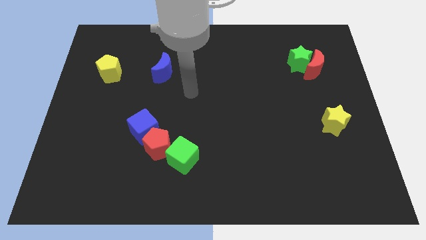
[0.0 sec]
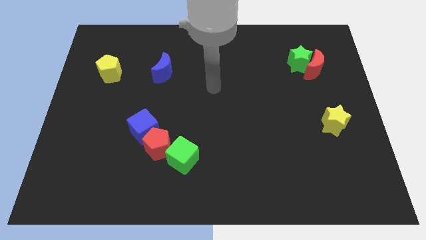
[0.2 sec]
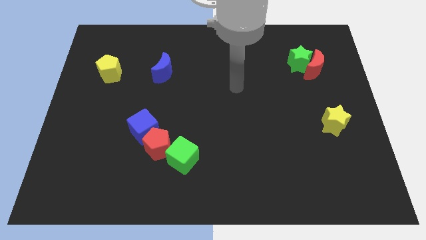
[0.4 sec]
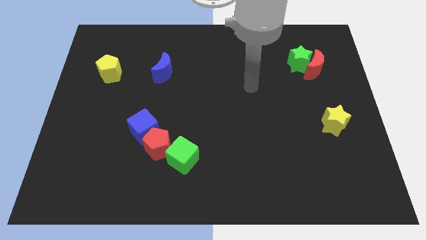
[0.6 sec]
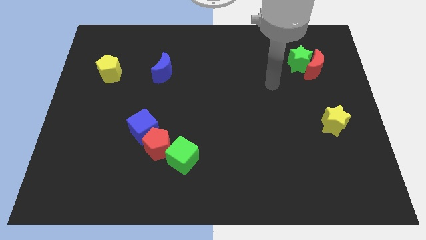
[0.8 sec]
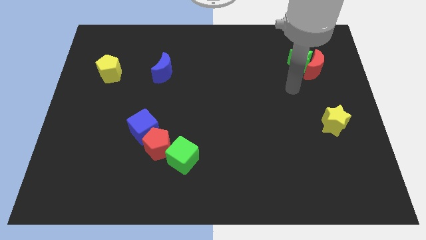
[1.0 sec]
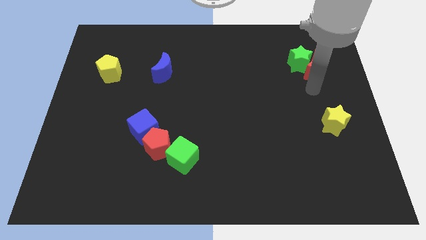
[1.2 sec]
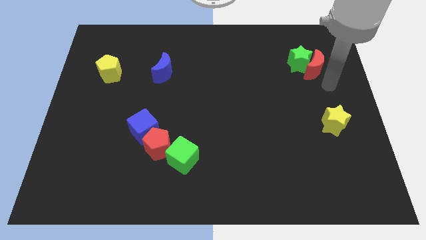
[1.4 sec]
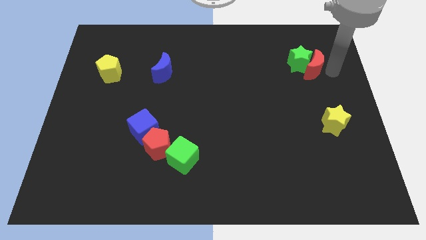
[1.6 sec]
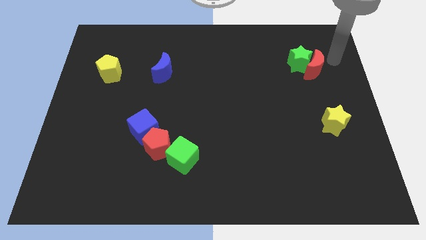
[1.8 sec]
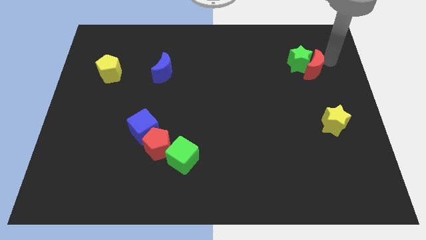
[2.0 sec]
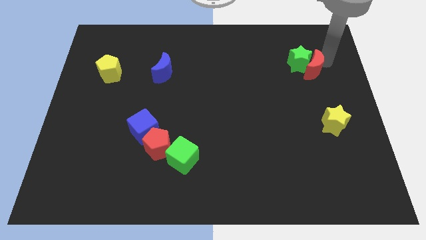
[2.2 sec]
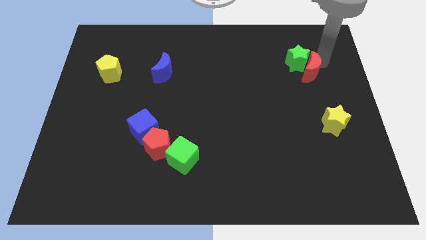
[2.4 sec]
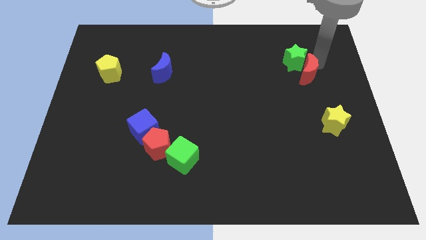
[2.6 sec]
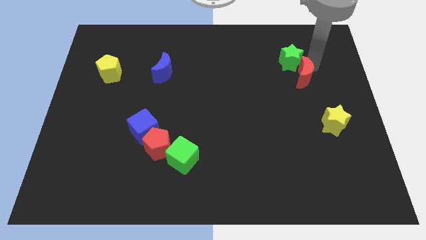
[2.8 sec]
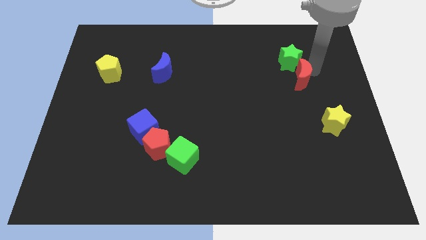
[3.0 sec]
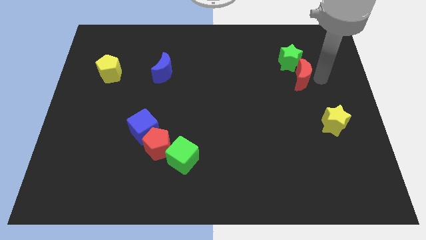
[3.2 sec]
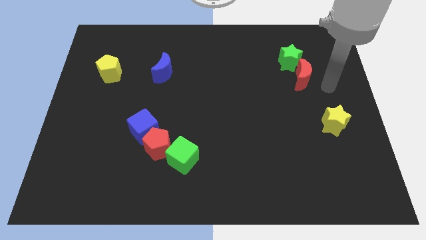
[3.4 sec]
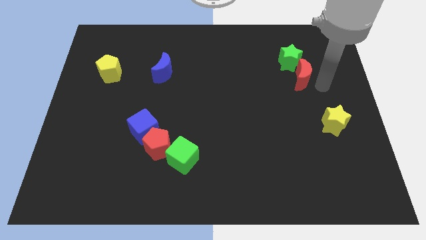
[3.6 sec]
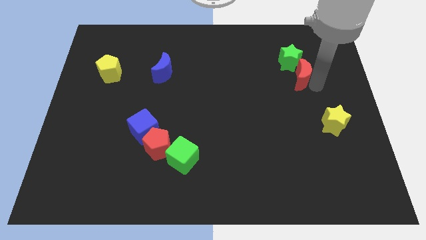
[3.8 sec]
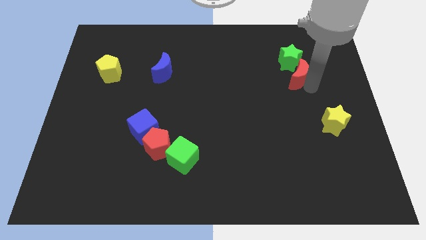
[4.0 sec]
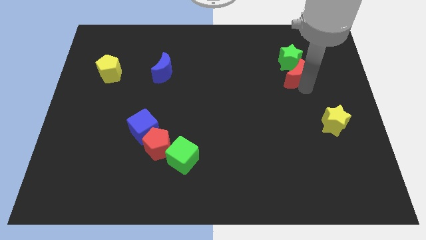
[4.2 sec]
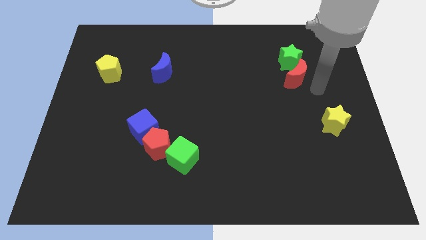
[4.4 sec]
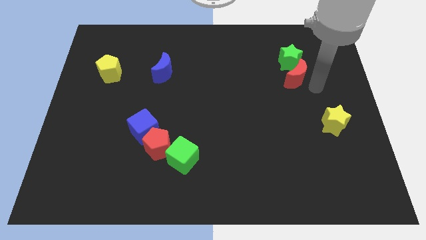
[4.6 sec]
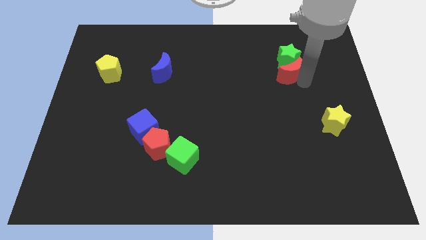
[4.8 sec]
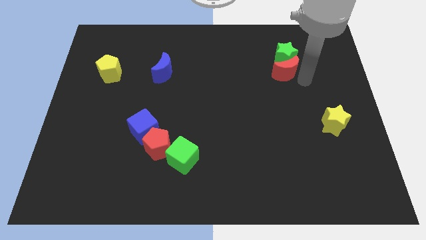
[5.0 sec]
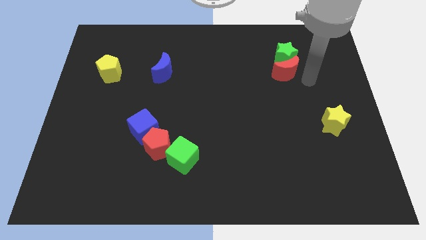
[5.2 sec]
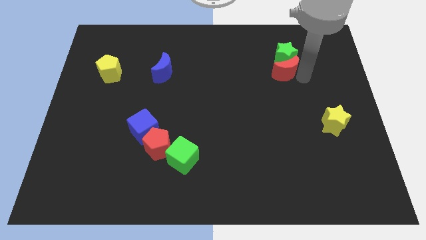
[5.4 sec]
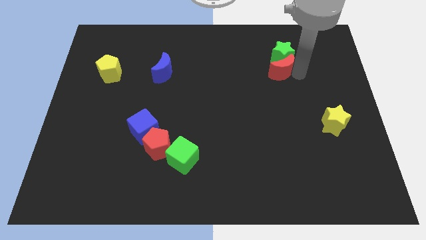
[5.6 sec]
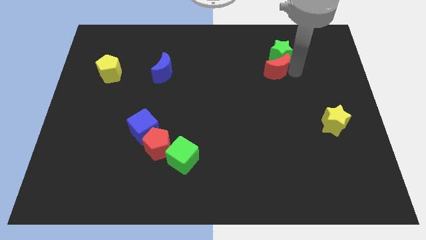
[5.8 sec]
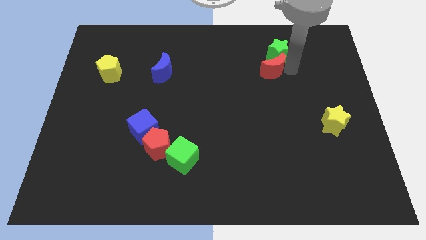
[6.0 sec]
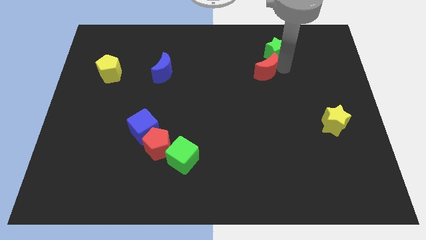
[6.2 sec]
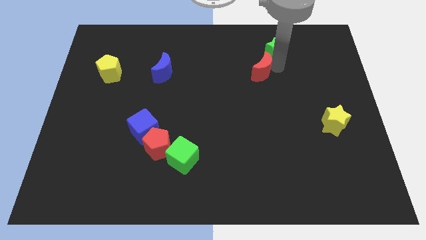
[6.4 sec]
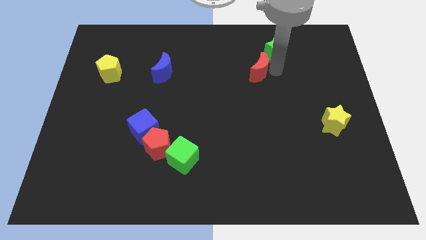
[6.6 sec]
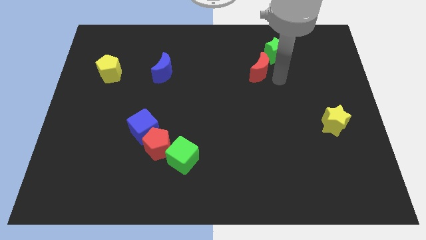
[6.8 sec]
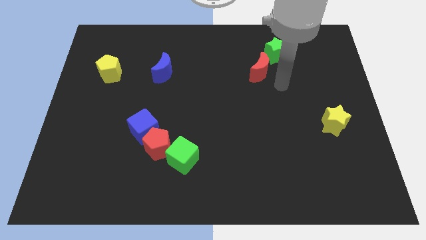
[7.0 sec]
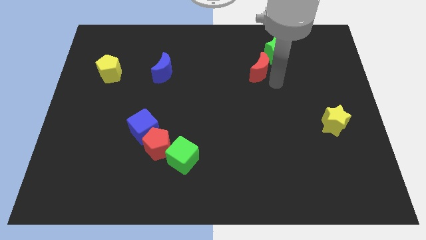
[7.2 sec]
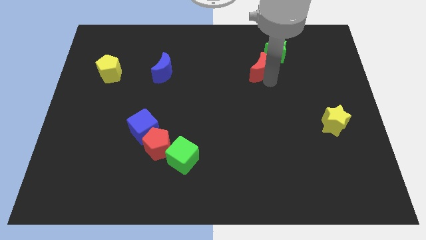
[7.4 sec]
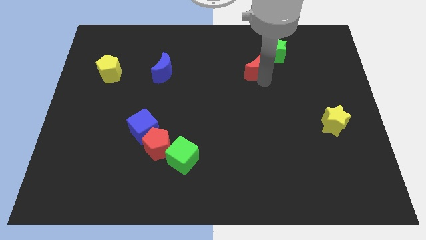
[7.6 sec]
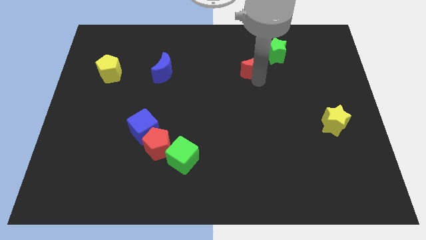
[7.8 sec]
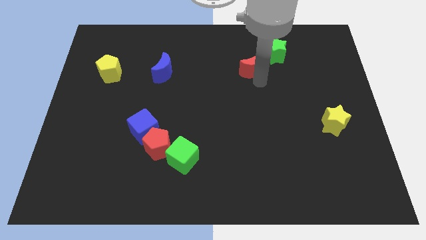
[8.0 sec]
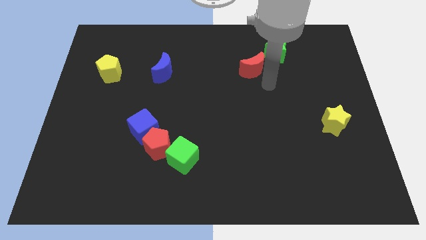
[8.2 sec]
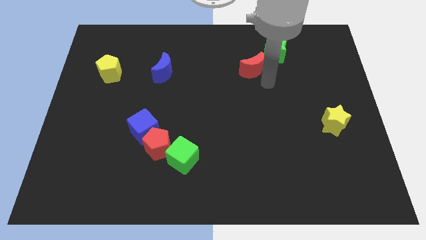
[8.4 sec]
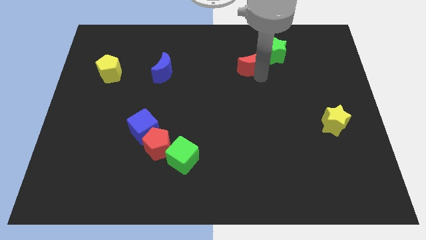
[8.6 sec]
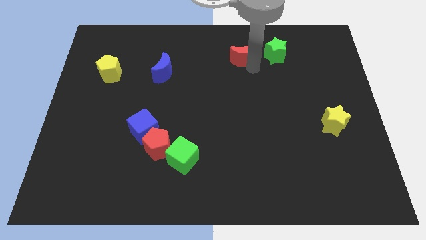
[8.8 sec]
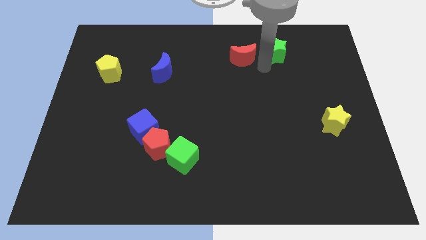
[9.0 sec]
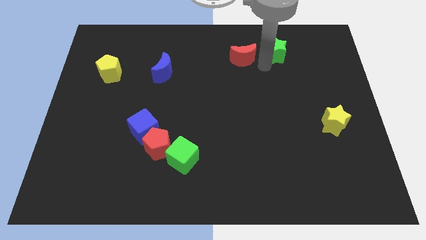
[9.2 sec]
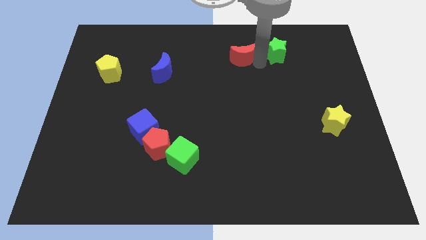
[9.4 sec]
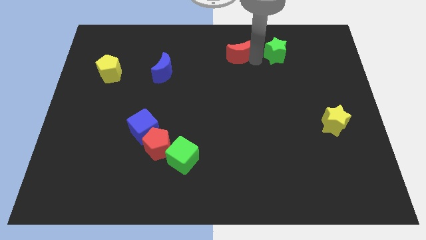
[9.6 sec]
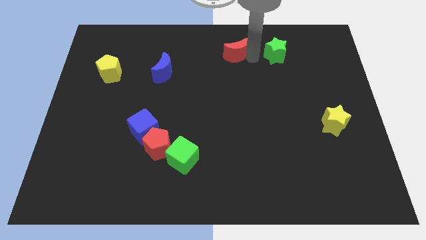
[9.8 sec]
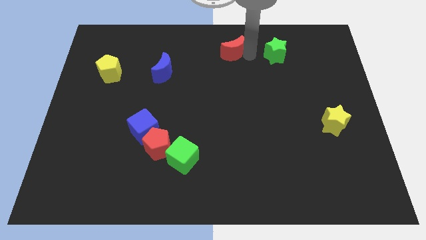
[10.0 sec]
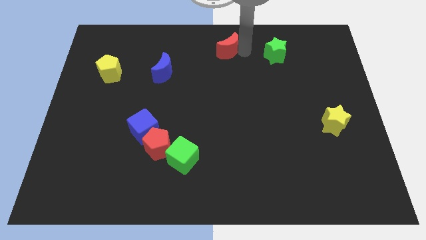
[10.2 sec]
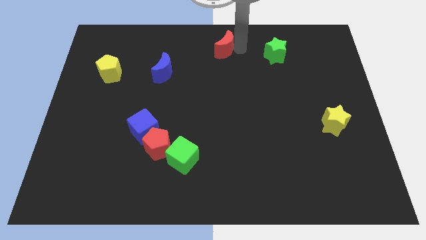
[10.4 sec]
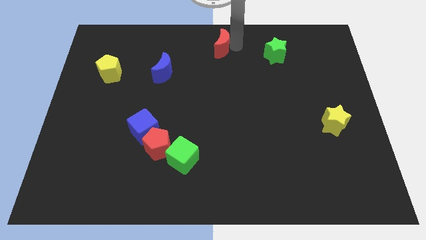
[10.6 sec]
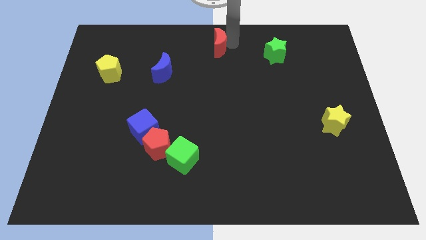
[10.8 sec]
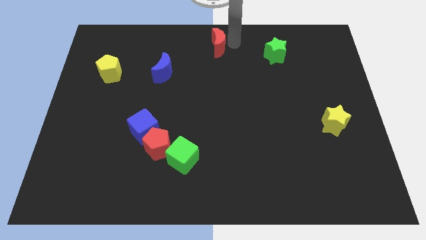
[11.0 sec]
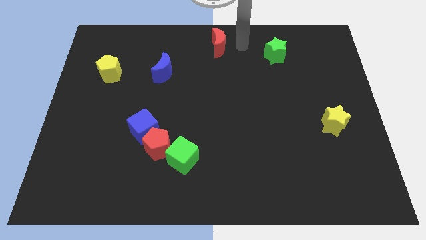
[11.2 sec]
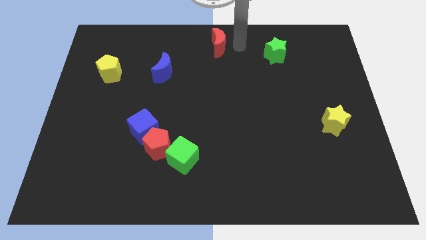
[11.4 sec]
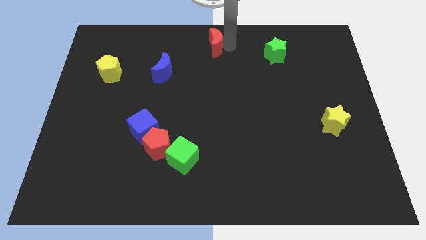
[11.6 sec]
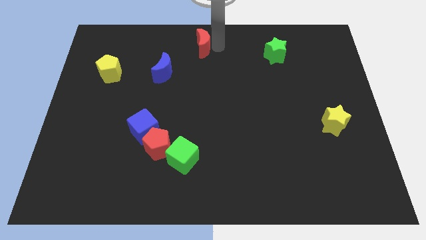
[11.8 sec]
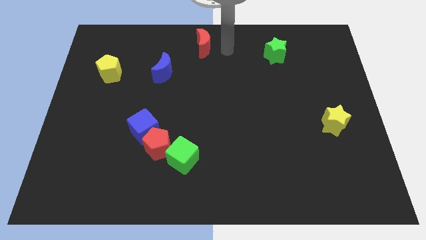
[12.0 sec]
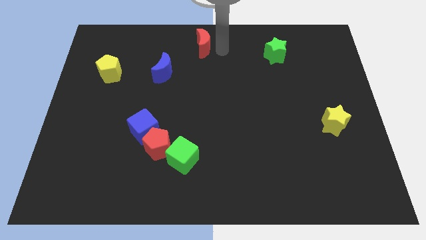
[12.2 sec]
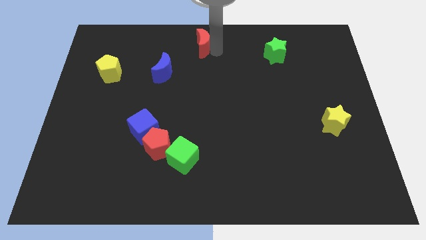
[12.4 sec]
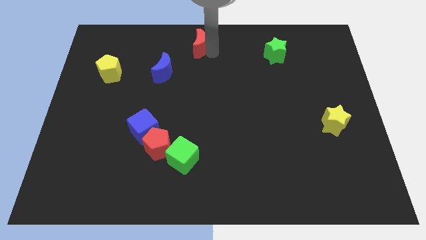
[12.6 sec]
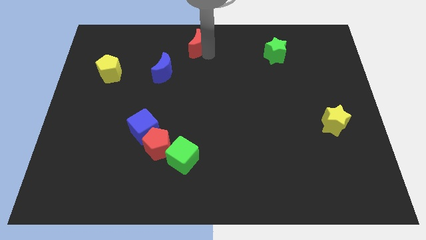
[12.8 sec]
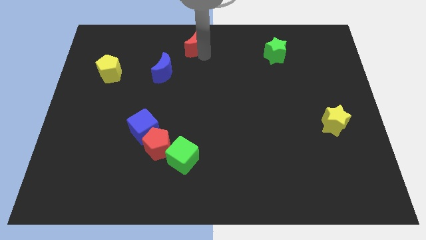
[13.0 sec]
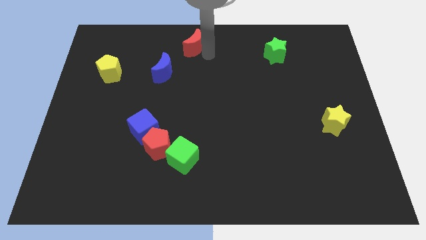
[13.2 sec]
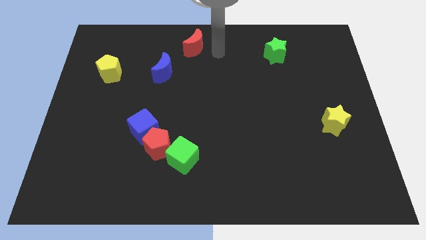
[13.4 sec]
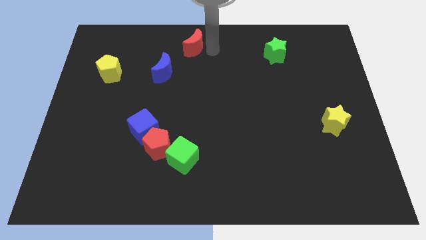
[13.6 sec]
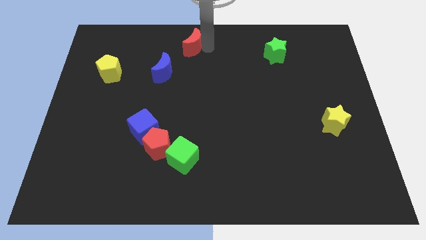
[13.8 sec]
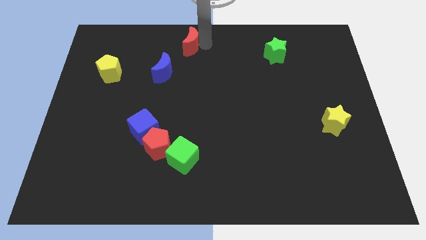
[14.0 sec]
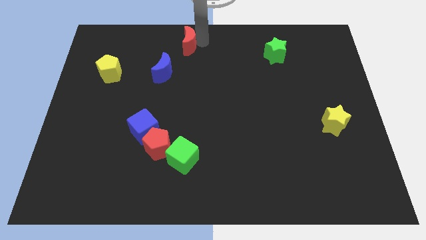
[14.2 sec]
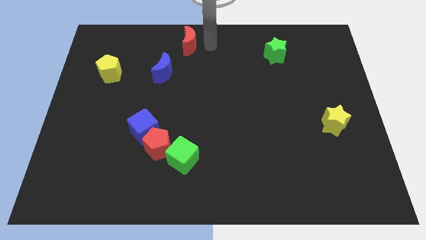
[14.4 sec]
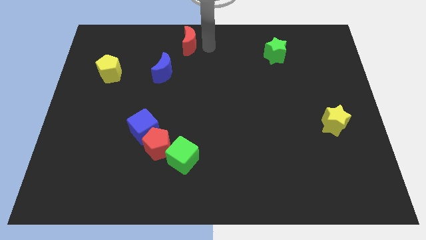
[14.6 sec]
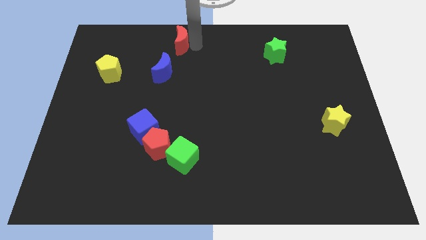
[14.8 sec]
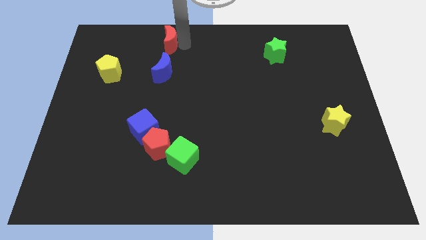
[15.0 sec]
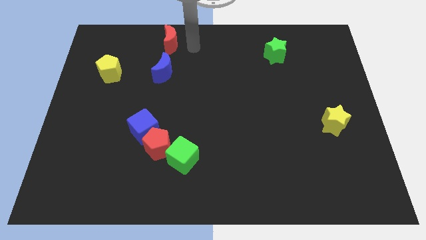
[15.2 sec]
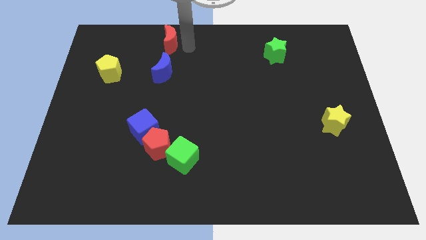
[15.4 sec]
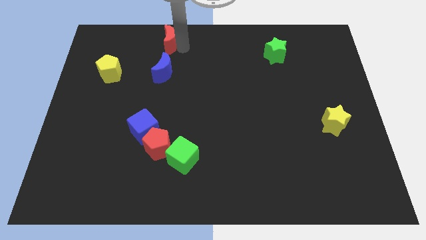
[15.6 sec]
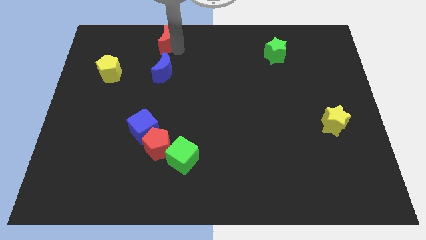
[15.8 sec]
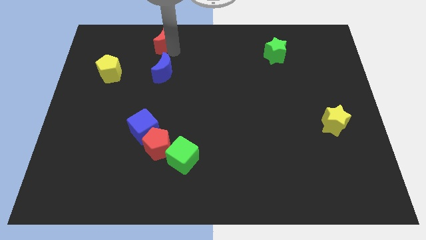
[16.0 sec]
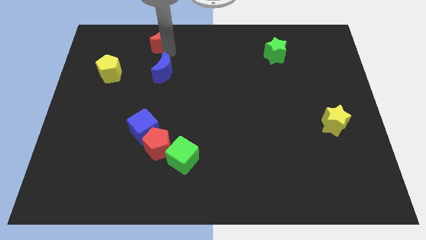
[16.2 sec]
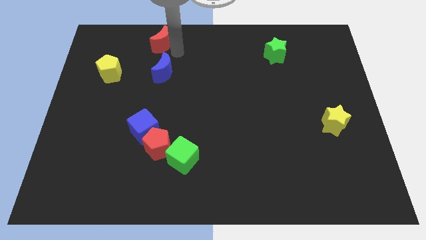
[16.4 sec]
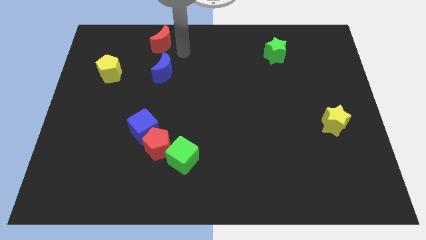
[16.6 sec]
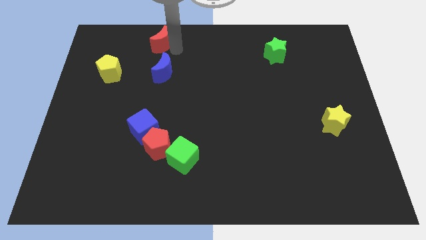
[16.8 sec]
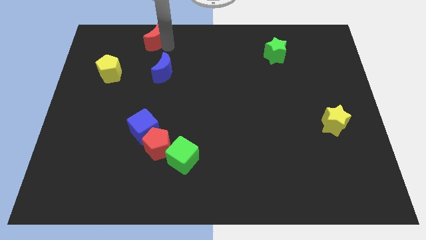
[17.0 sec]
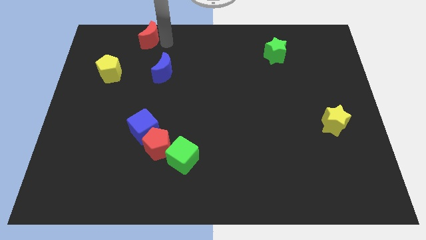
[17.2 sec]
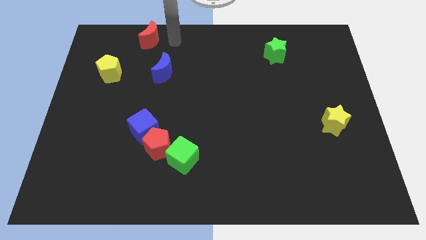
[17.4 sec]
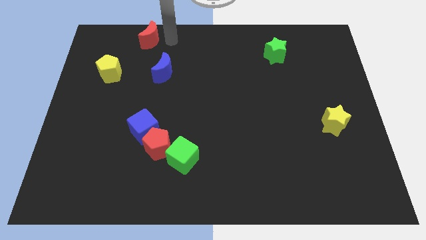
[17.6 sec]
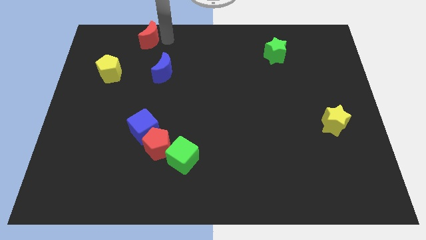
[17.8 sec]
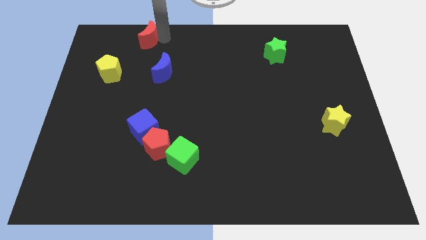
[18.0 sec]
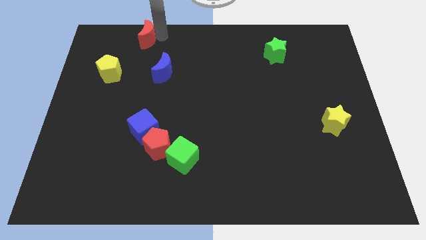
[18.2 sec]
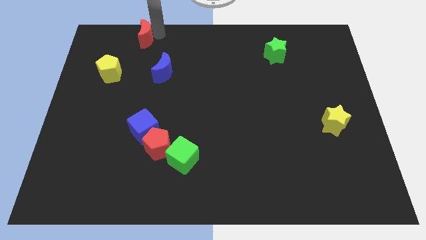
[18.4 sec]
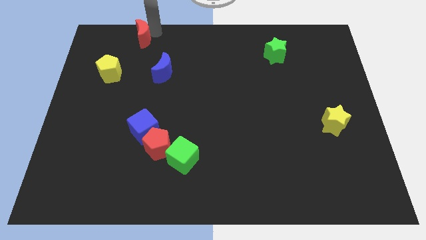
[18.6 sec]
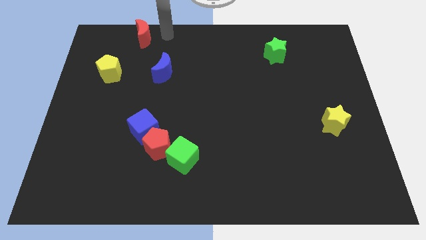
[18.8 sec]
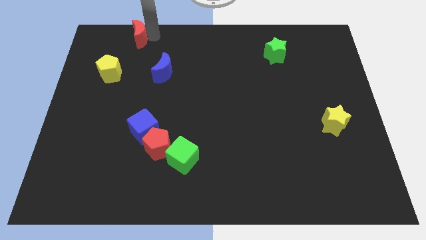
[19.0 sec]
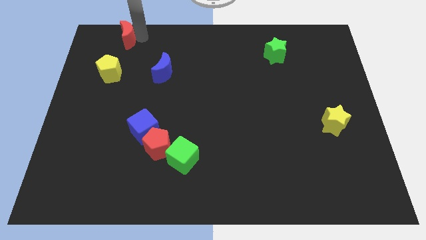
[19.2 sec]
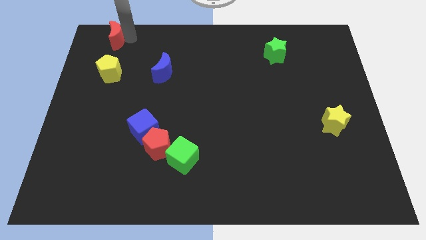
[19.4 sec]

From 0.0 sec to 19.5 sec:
slide the red moon to the top left corner
